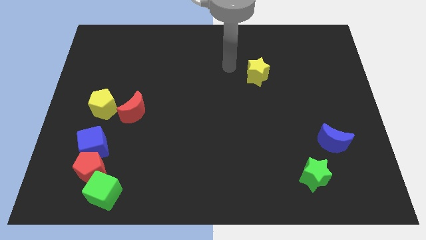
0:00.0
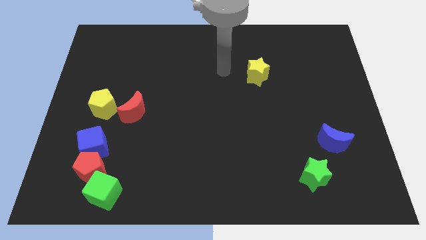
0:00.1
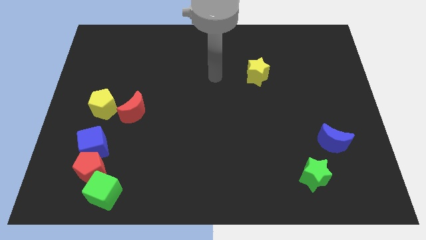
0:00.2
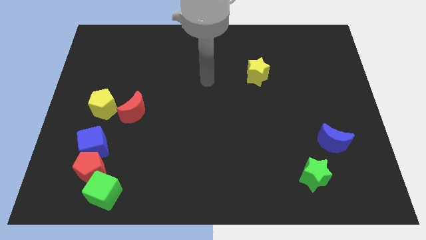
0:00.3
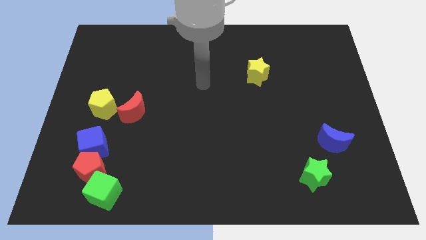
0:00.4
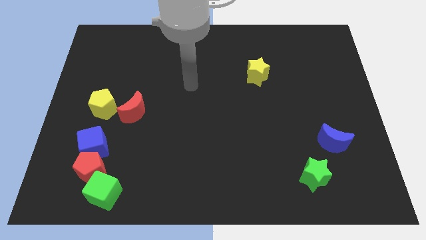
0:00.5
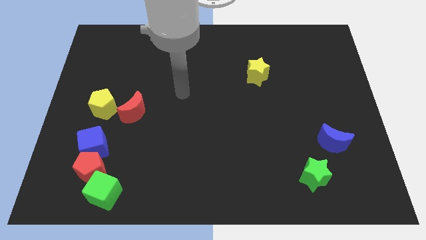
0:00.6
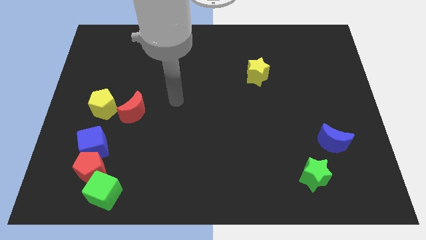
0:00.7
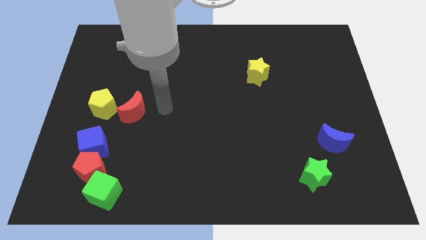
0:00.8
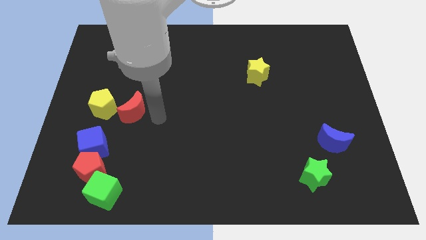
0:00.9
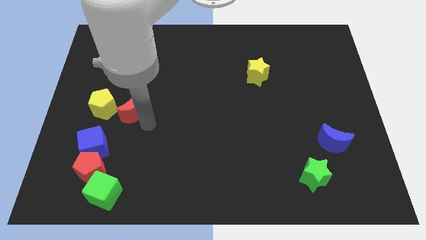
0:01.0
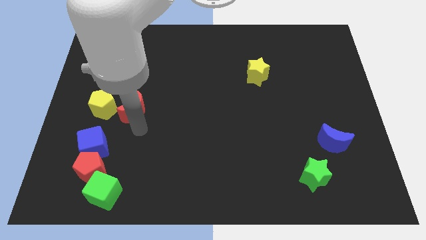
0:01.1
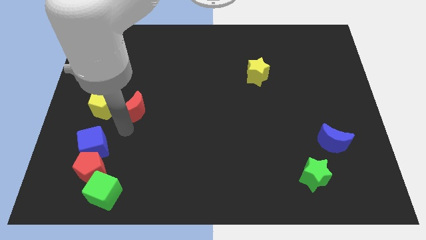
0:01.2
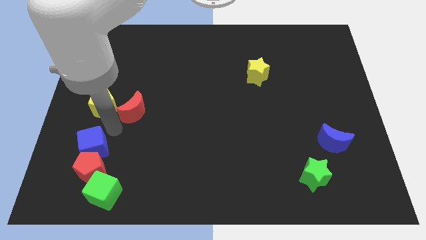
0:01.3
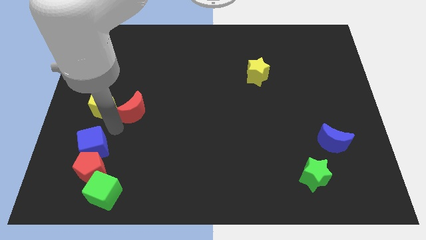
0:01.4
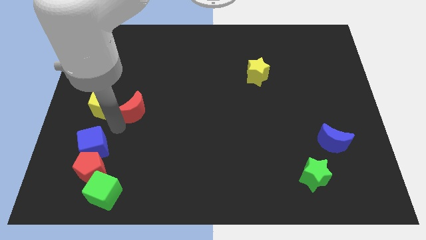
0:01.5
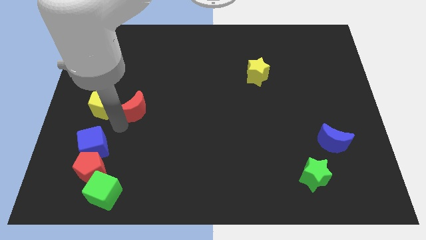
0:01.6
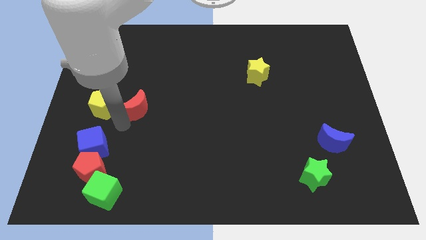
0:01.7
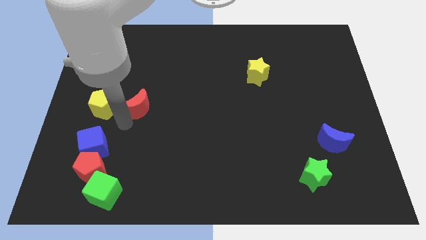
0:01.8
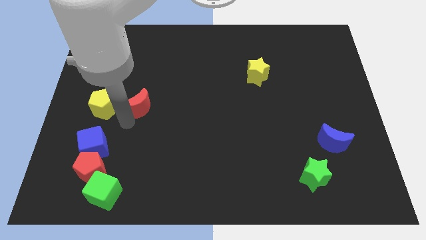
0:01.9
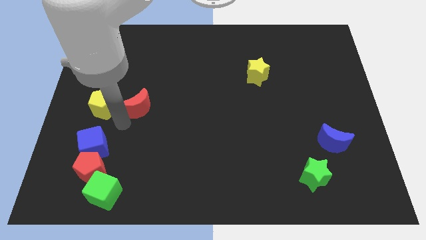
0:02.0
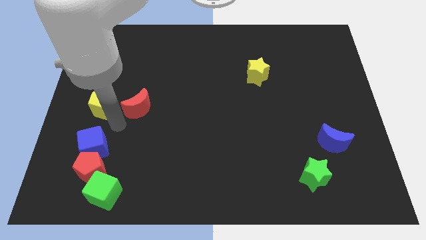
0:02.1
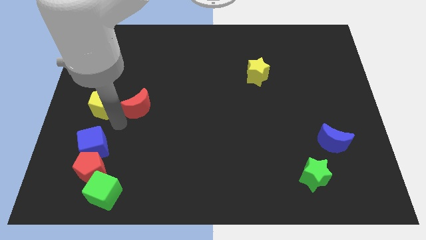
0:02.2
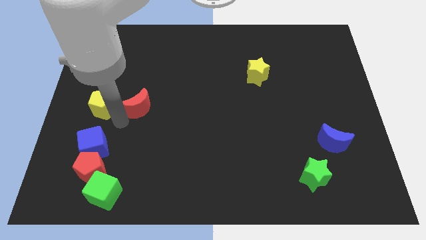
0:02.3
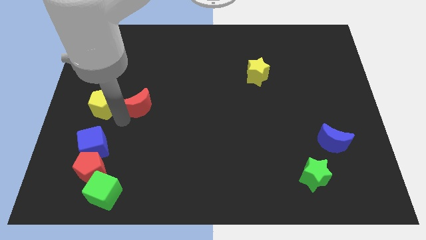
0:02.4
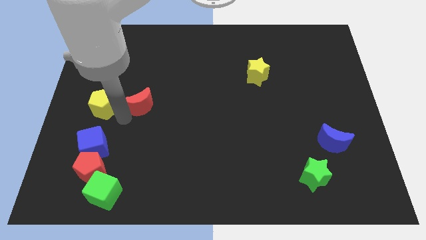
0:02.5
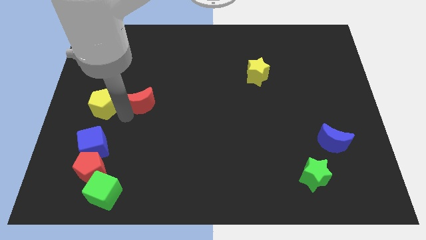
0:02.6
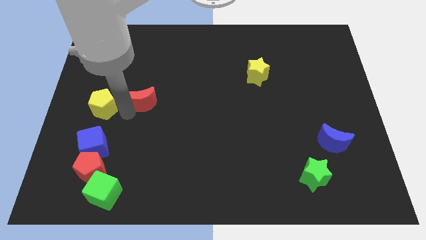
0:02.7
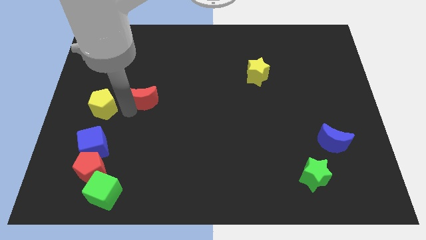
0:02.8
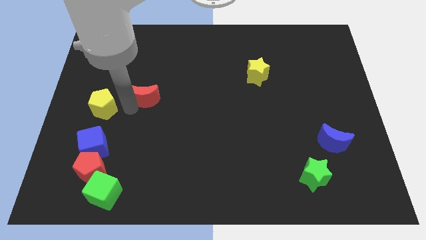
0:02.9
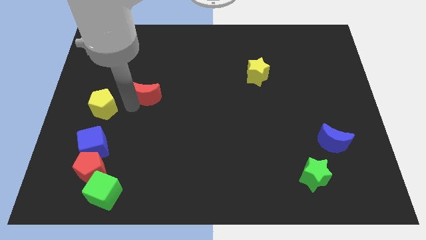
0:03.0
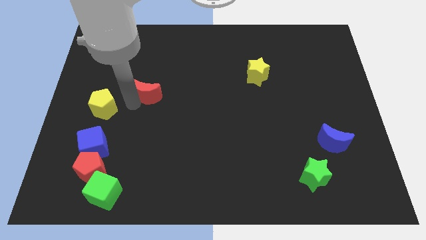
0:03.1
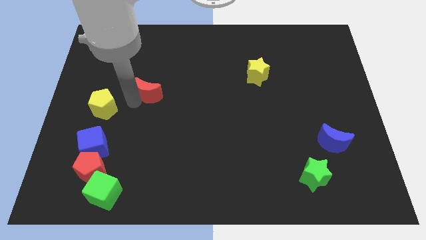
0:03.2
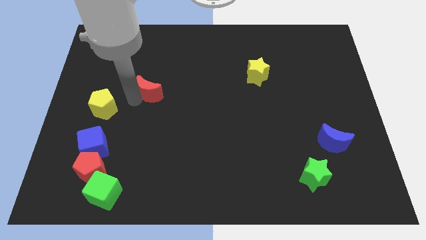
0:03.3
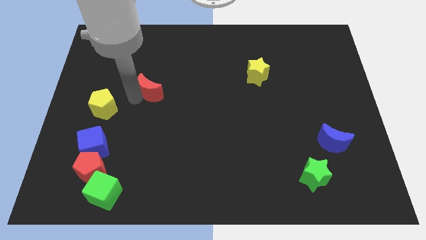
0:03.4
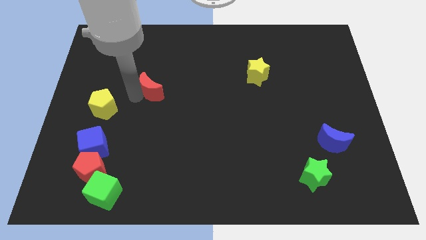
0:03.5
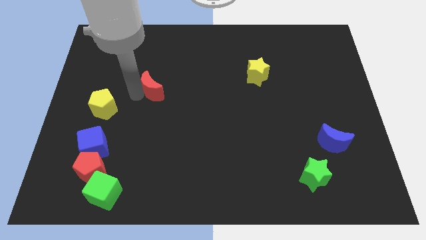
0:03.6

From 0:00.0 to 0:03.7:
slightly move the red moon up and to the right

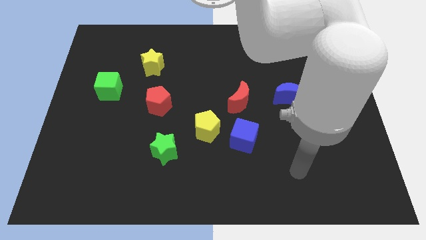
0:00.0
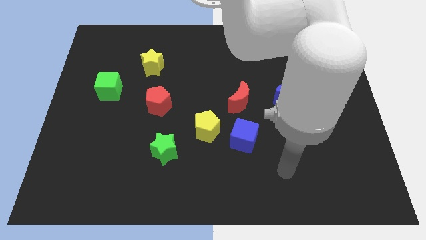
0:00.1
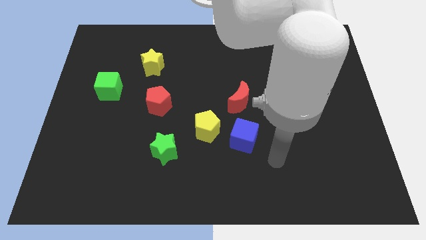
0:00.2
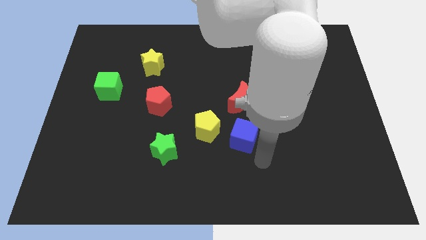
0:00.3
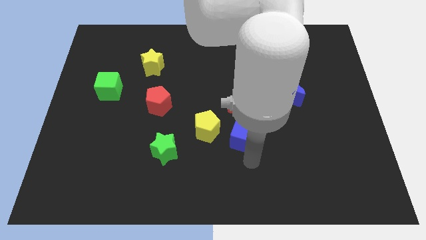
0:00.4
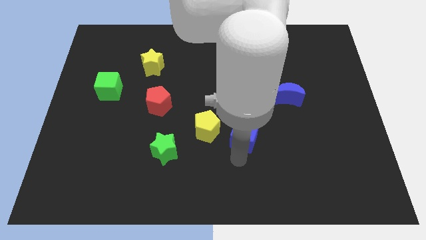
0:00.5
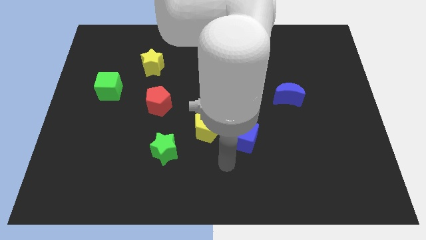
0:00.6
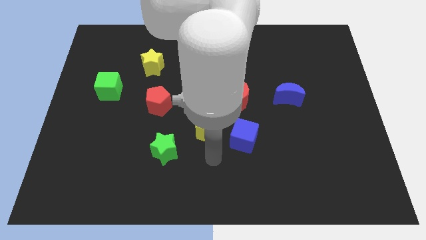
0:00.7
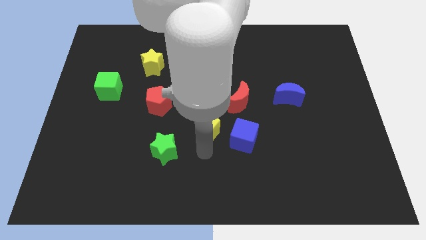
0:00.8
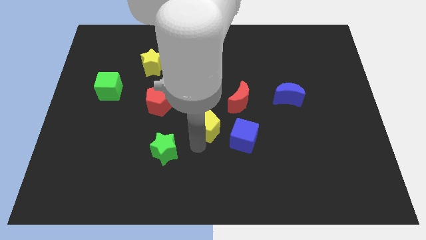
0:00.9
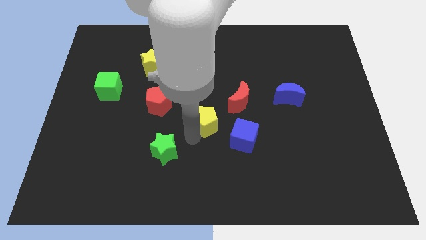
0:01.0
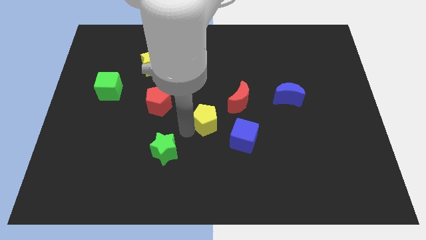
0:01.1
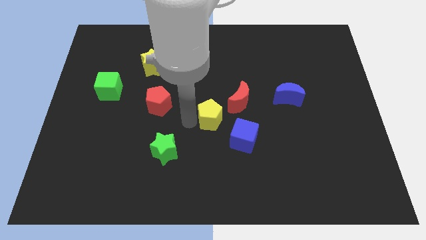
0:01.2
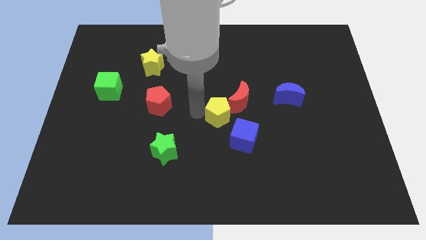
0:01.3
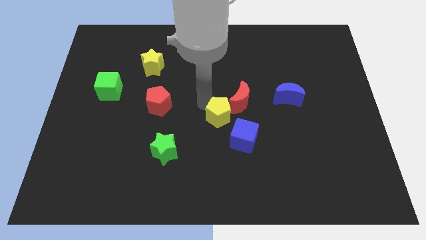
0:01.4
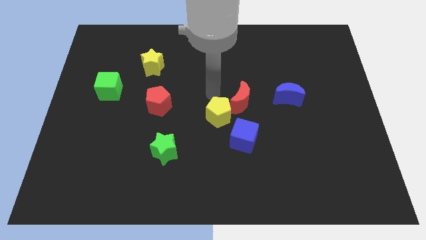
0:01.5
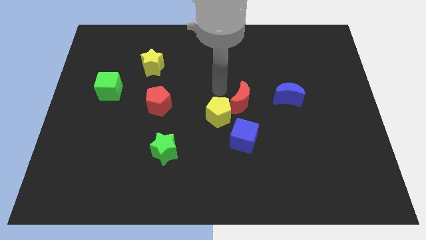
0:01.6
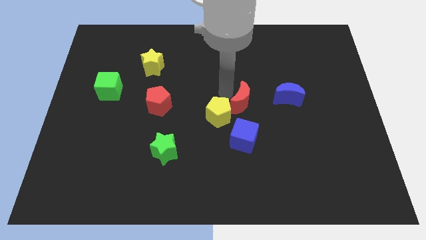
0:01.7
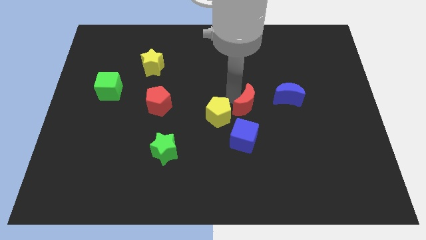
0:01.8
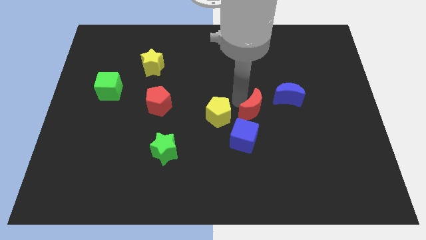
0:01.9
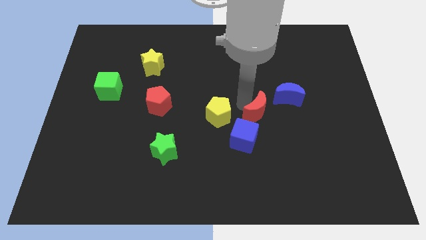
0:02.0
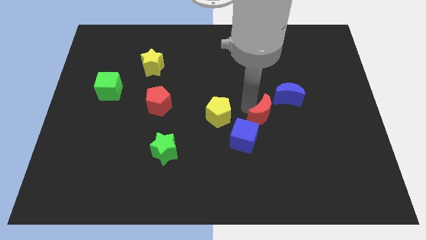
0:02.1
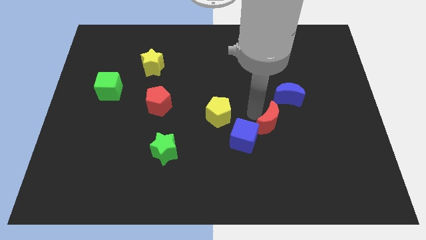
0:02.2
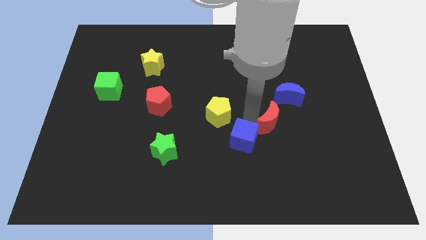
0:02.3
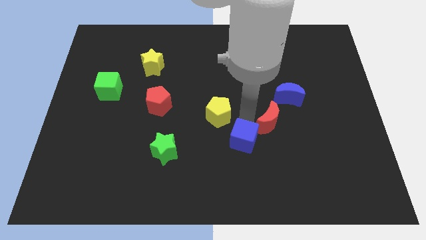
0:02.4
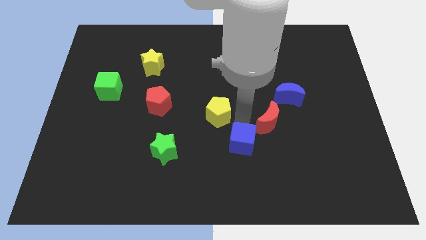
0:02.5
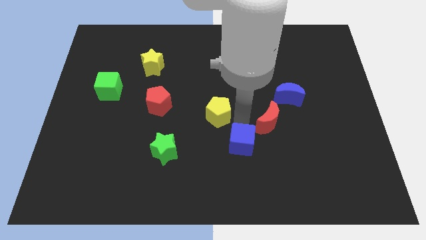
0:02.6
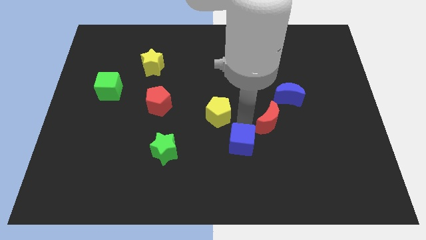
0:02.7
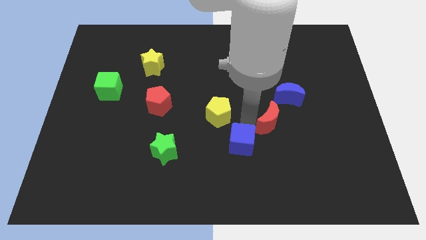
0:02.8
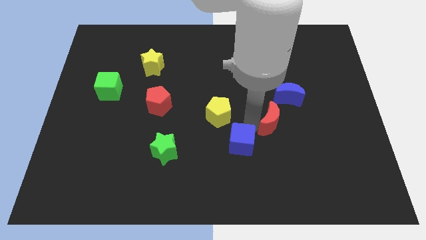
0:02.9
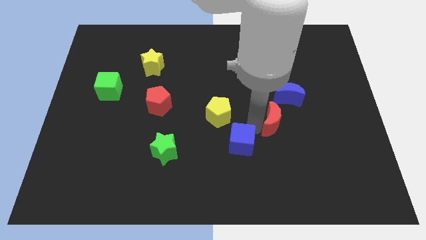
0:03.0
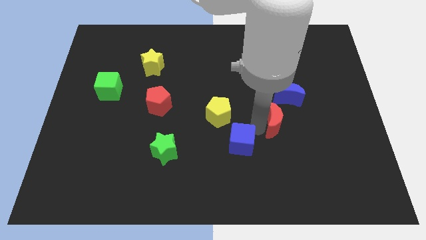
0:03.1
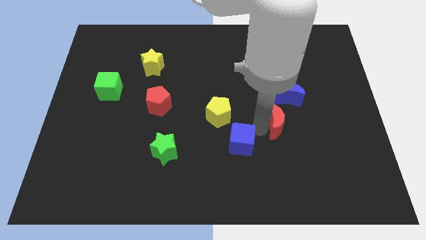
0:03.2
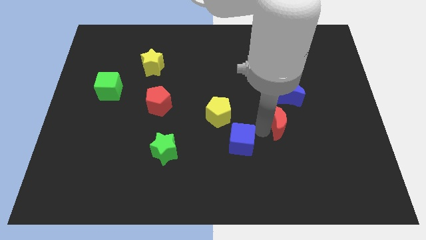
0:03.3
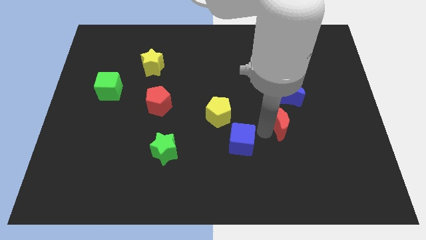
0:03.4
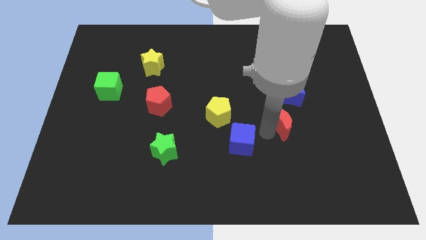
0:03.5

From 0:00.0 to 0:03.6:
slightly push the red moon to the right

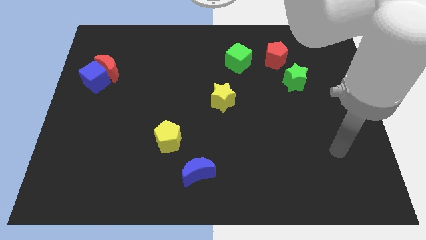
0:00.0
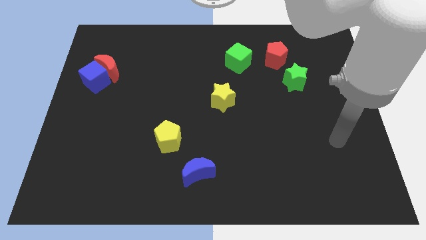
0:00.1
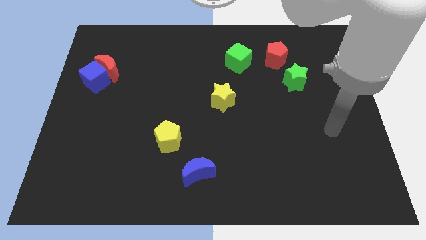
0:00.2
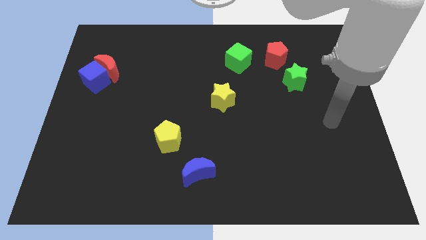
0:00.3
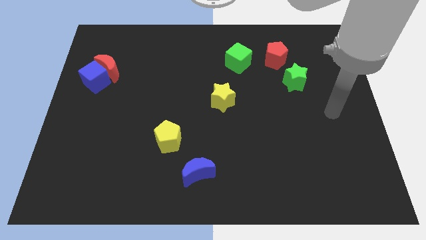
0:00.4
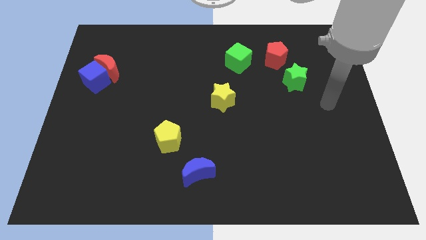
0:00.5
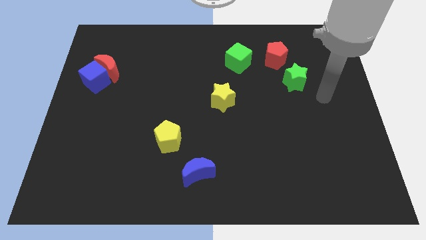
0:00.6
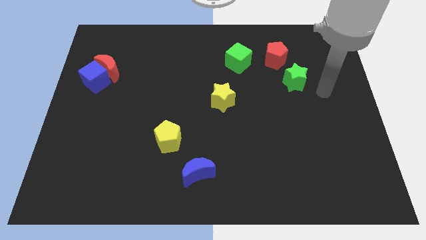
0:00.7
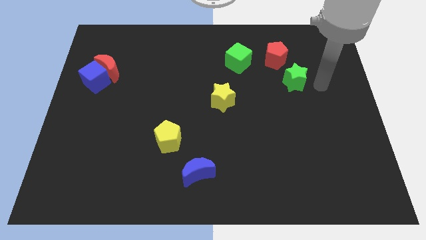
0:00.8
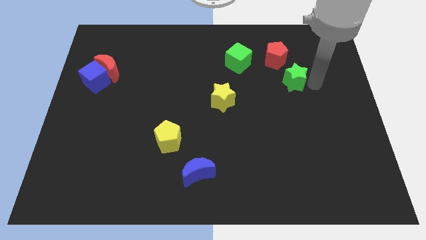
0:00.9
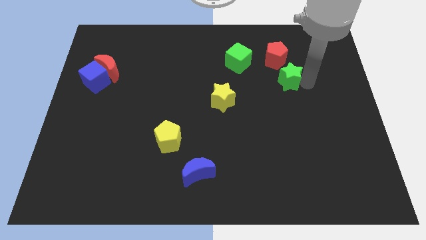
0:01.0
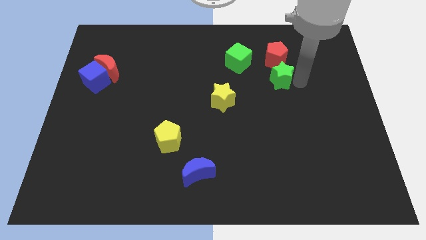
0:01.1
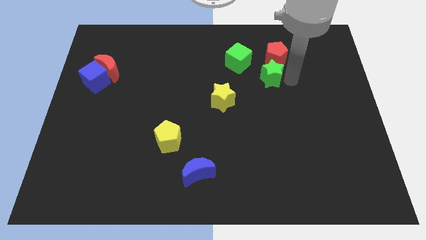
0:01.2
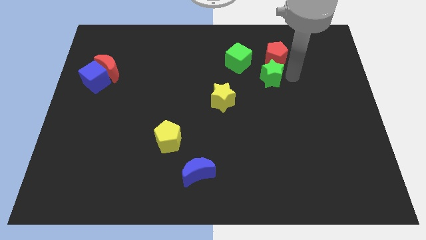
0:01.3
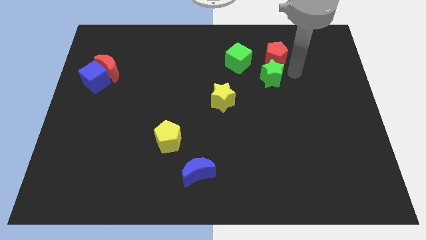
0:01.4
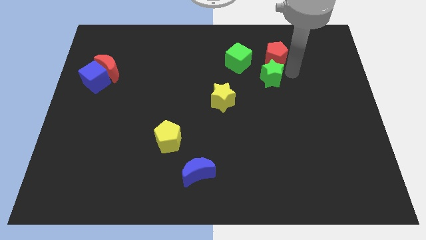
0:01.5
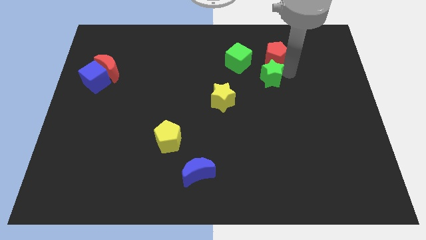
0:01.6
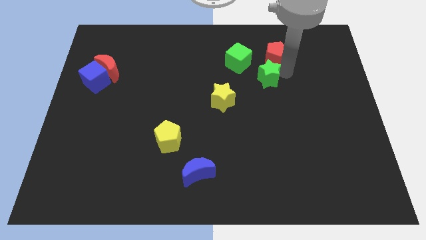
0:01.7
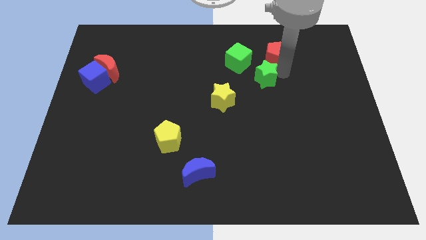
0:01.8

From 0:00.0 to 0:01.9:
move the green star left a little
